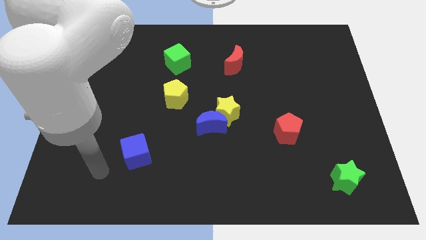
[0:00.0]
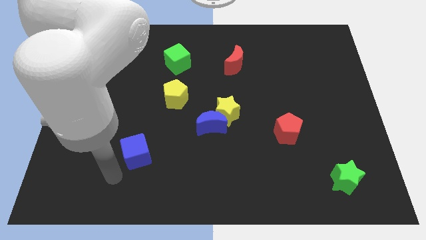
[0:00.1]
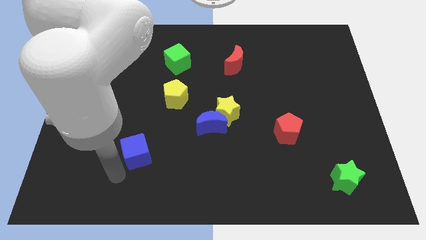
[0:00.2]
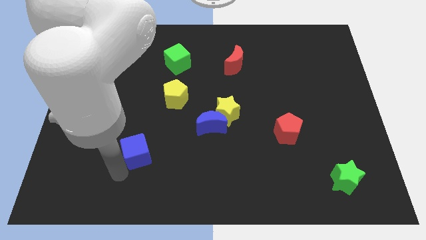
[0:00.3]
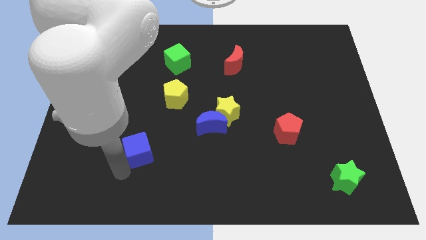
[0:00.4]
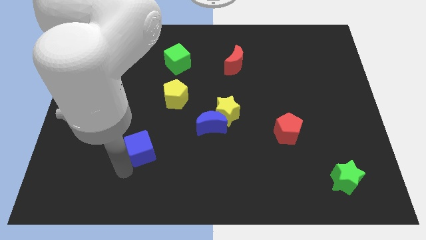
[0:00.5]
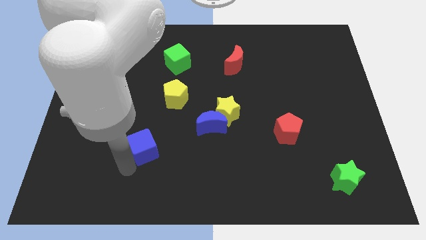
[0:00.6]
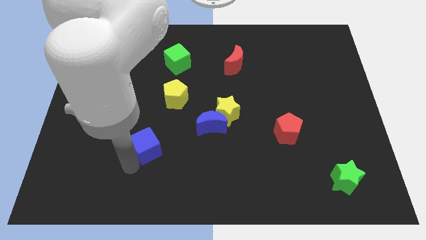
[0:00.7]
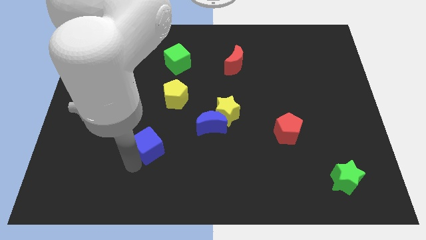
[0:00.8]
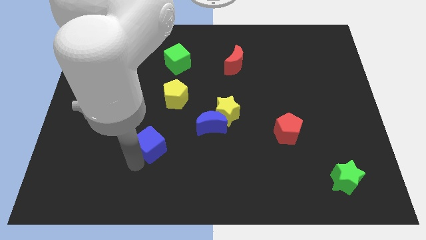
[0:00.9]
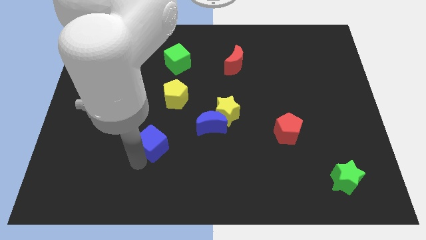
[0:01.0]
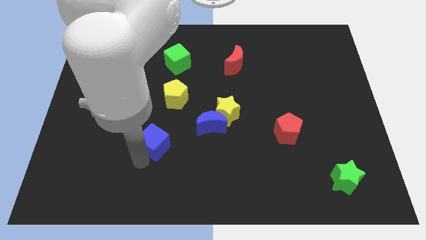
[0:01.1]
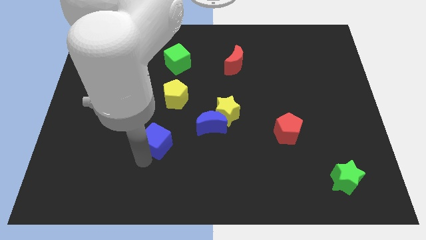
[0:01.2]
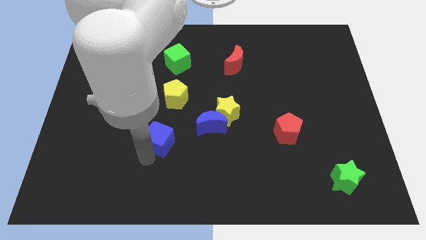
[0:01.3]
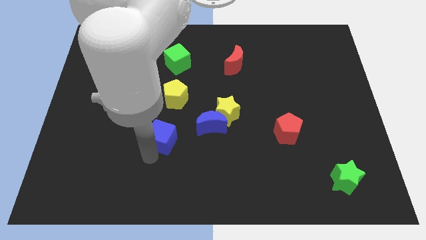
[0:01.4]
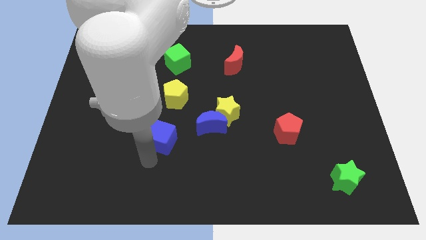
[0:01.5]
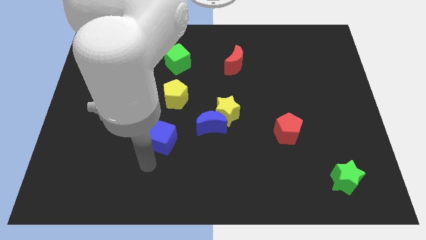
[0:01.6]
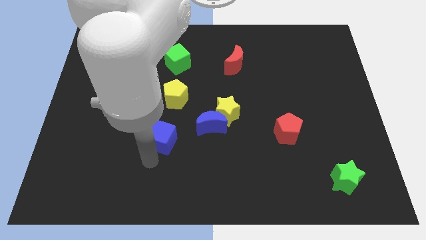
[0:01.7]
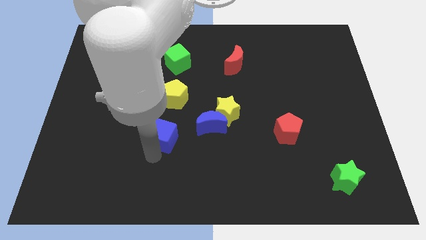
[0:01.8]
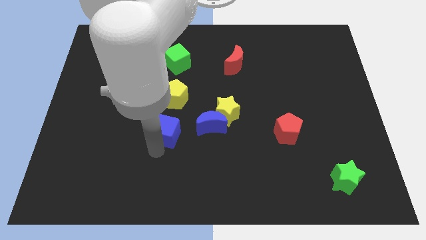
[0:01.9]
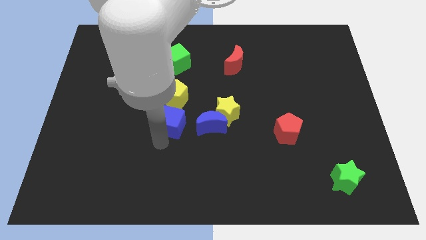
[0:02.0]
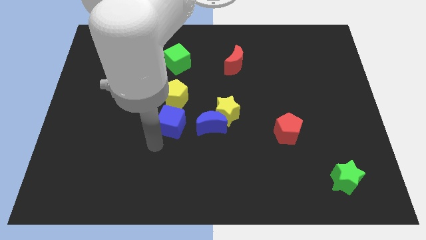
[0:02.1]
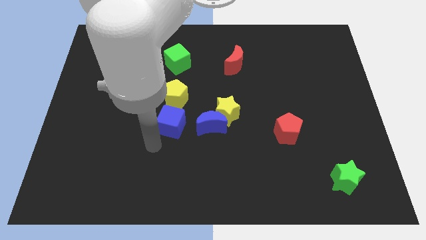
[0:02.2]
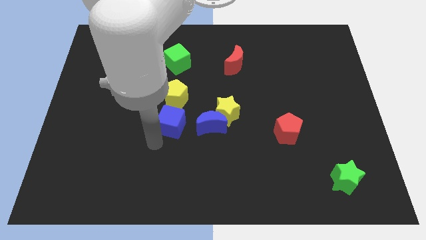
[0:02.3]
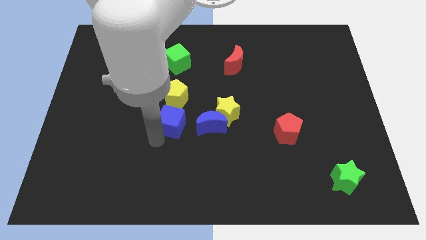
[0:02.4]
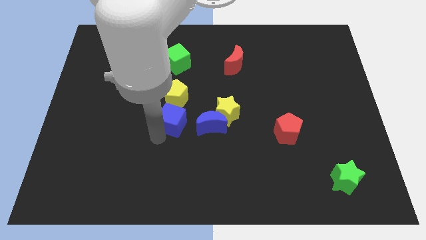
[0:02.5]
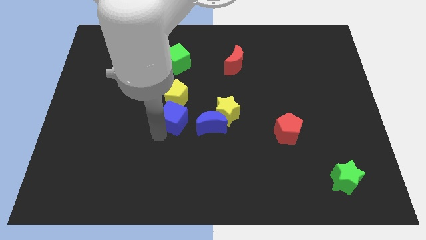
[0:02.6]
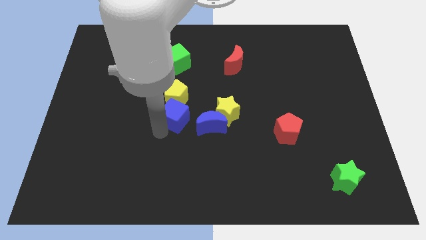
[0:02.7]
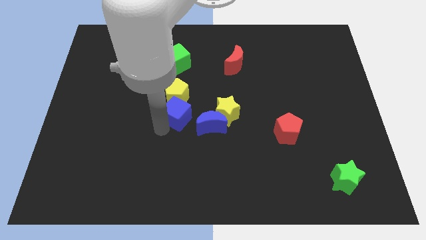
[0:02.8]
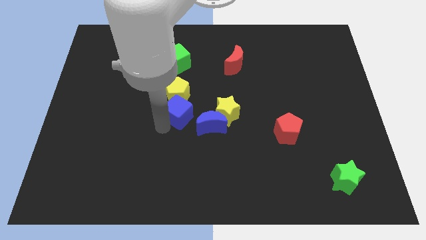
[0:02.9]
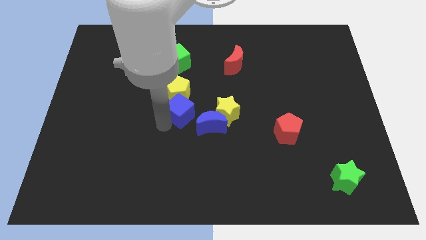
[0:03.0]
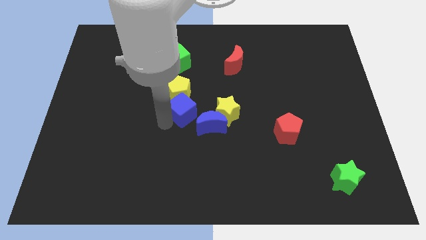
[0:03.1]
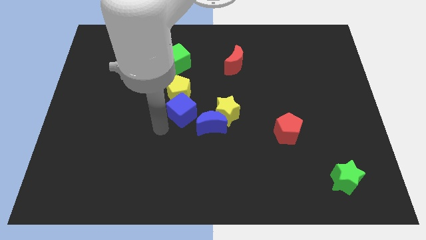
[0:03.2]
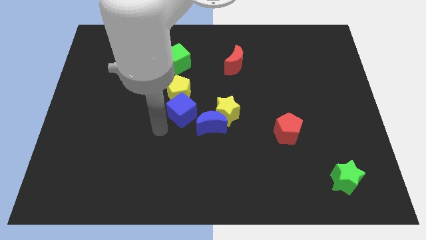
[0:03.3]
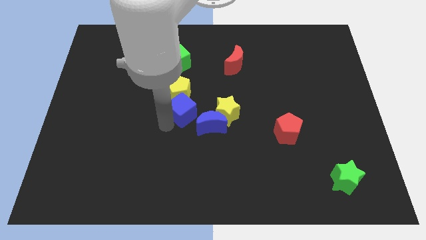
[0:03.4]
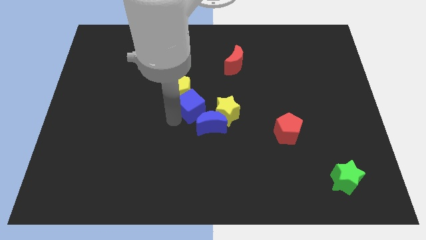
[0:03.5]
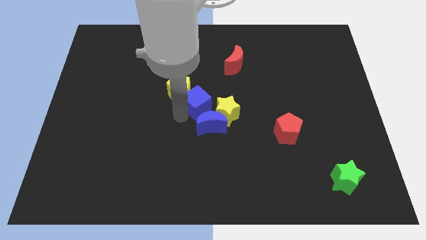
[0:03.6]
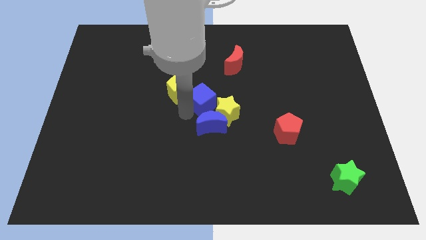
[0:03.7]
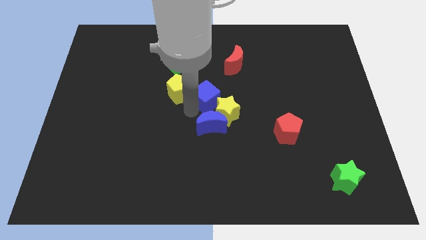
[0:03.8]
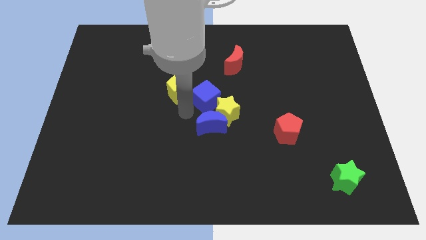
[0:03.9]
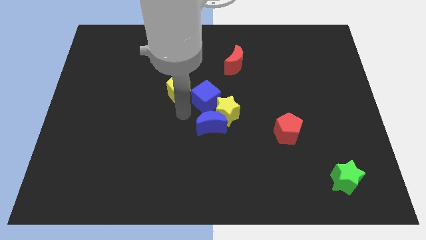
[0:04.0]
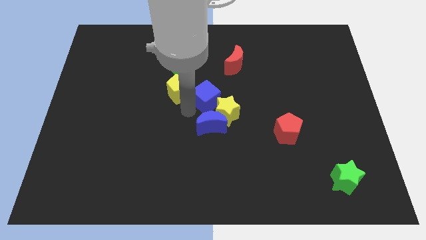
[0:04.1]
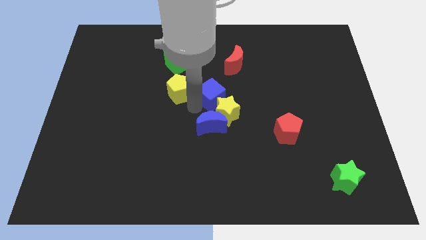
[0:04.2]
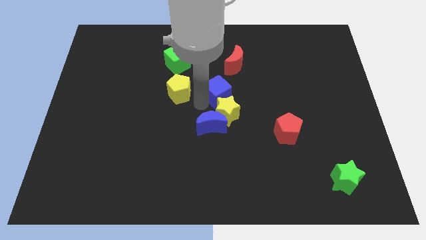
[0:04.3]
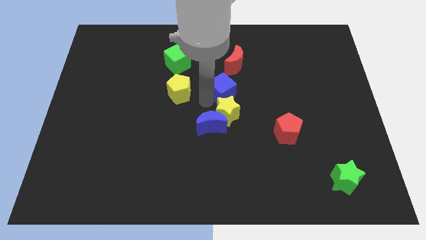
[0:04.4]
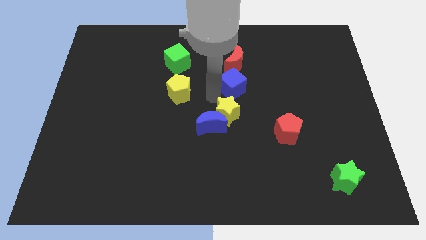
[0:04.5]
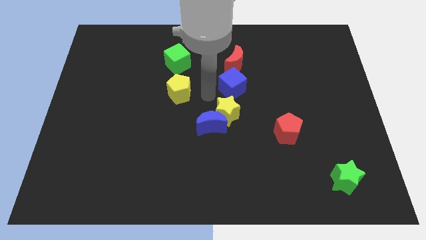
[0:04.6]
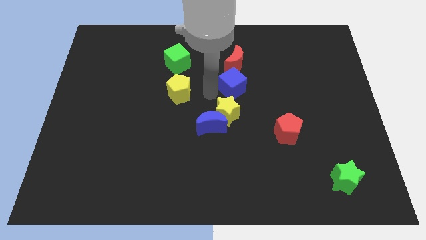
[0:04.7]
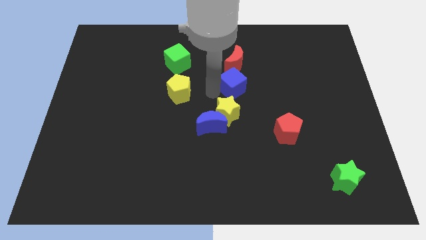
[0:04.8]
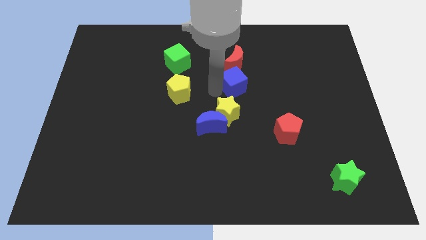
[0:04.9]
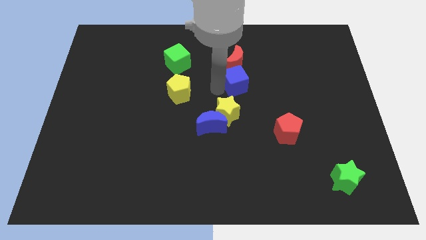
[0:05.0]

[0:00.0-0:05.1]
move the blue cube to the bottom right of the red moon

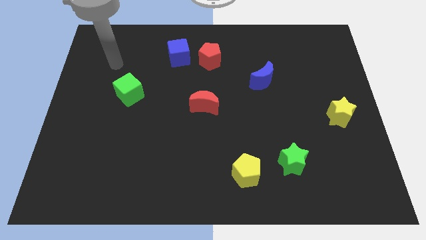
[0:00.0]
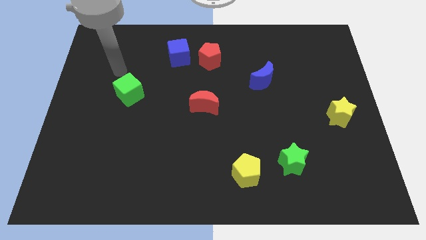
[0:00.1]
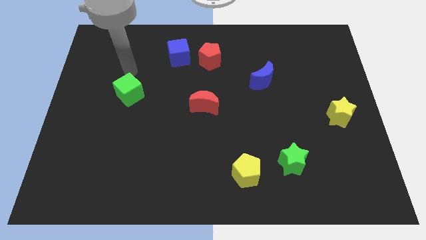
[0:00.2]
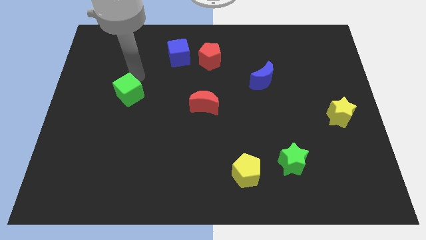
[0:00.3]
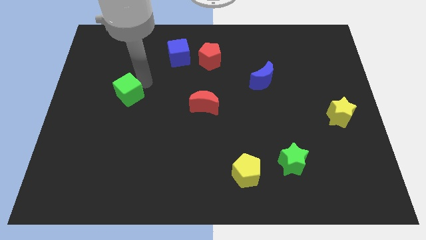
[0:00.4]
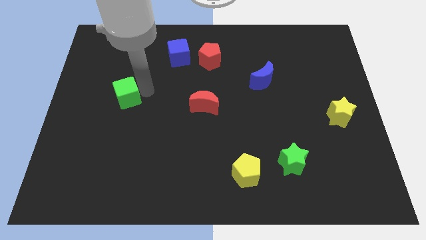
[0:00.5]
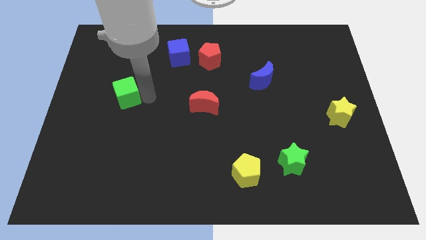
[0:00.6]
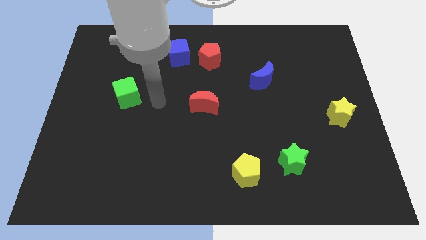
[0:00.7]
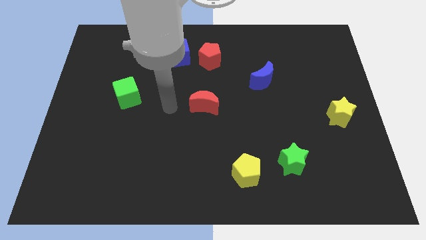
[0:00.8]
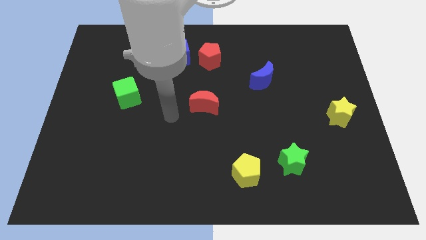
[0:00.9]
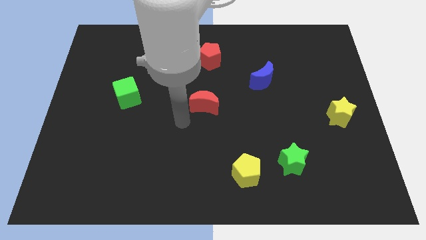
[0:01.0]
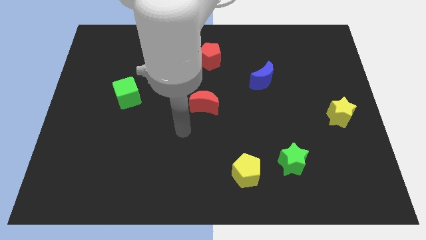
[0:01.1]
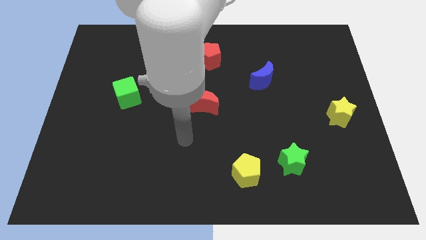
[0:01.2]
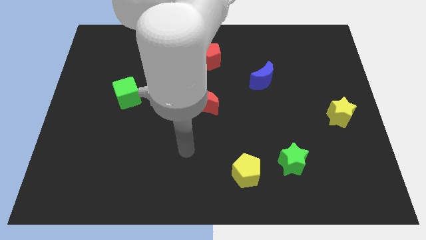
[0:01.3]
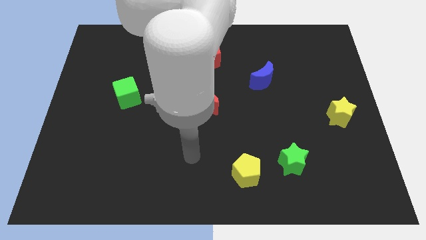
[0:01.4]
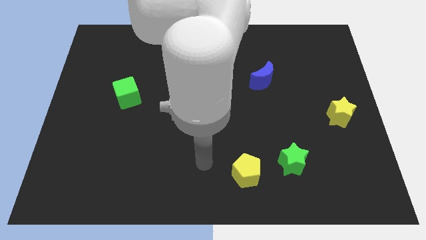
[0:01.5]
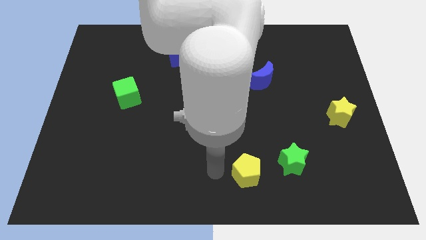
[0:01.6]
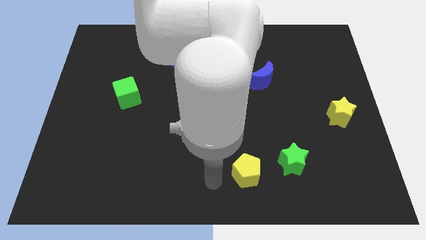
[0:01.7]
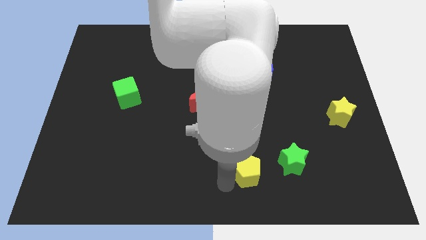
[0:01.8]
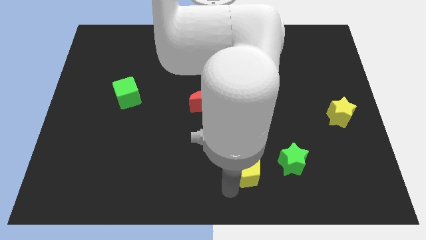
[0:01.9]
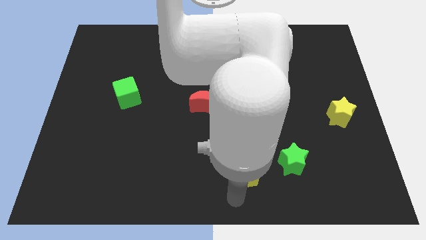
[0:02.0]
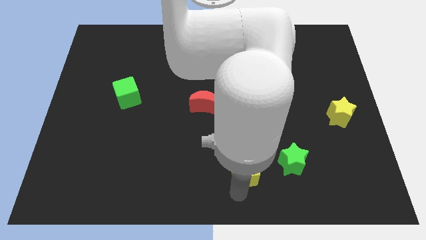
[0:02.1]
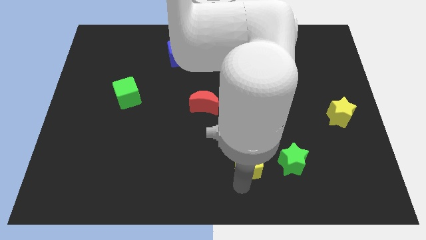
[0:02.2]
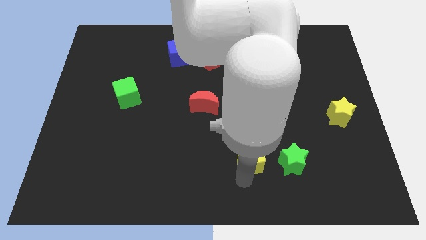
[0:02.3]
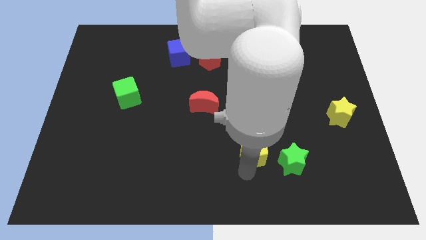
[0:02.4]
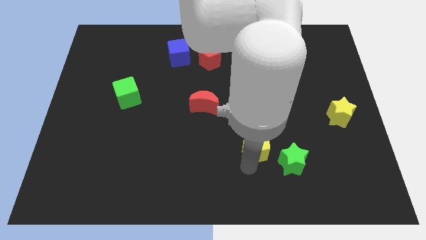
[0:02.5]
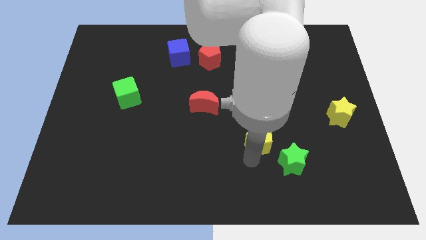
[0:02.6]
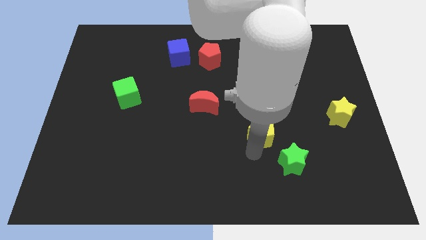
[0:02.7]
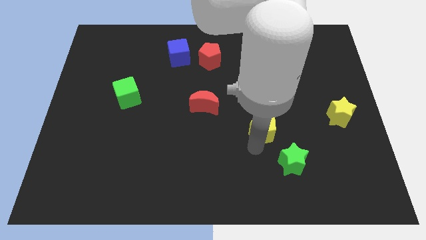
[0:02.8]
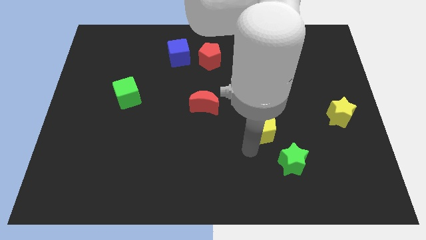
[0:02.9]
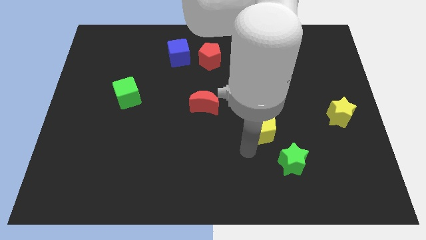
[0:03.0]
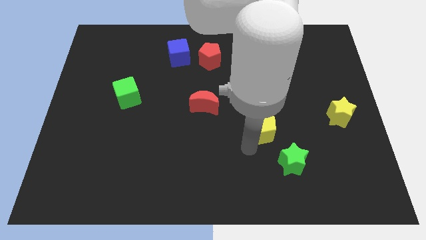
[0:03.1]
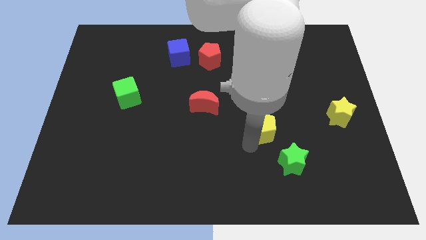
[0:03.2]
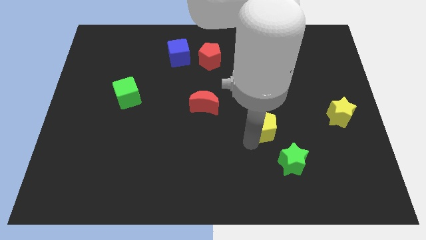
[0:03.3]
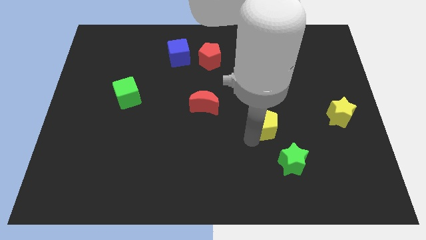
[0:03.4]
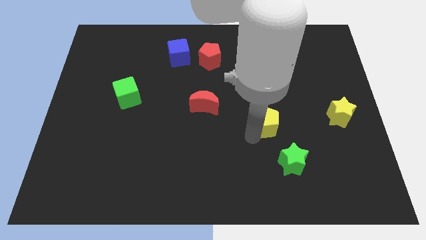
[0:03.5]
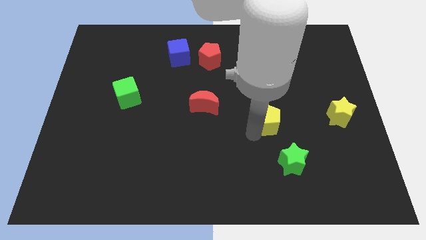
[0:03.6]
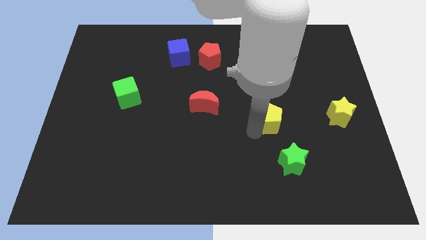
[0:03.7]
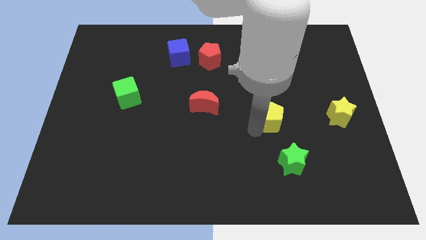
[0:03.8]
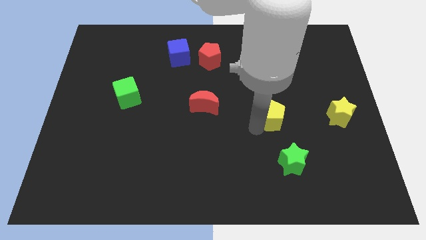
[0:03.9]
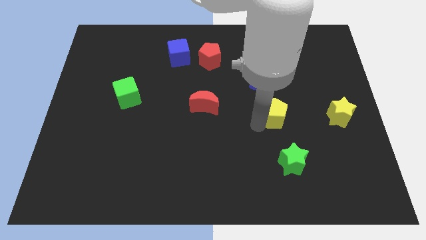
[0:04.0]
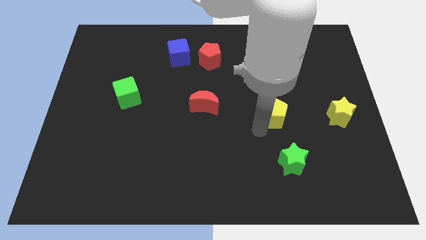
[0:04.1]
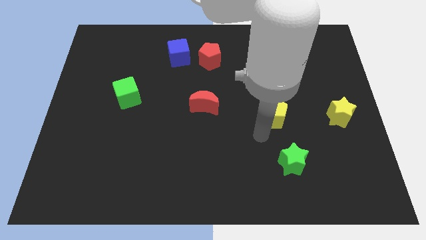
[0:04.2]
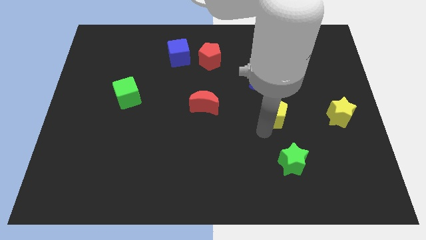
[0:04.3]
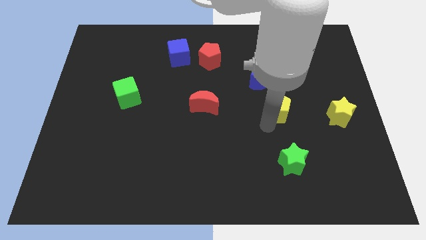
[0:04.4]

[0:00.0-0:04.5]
slide the yellow pentagon to the bottom right side of the blue moon
